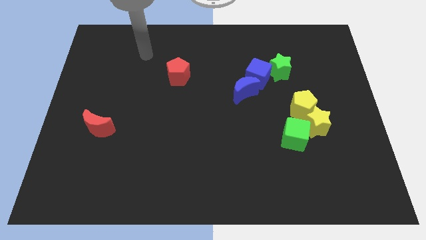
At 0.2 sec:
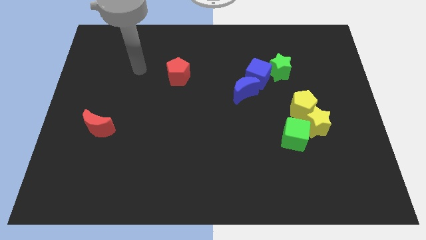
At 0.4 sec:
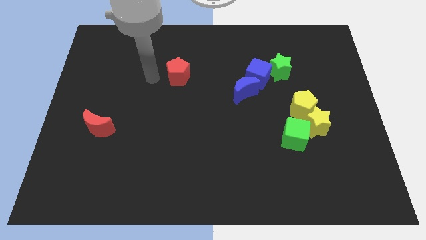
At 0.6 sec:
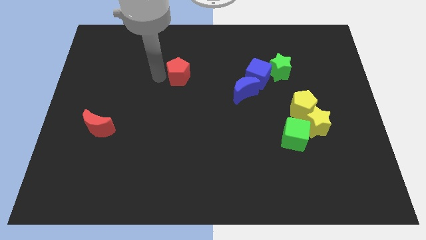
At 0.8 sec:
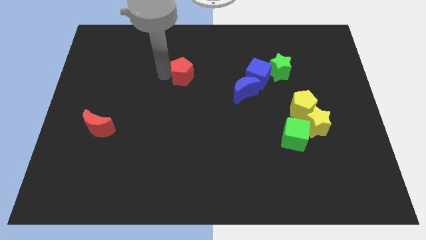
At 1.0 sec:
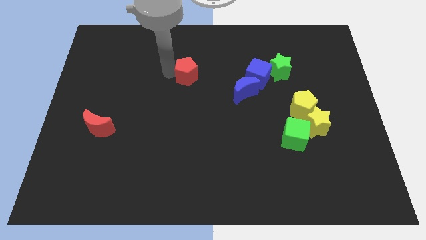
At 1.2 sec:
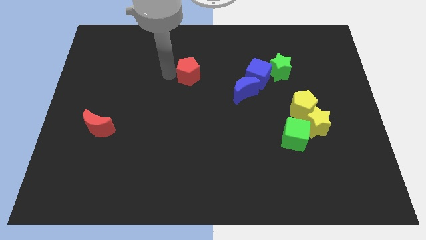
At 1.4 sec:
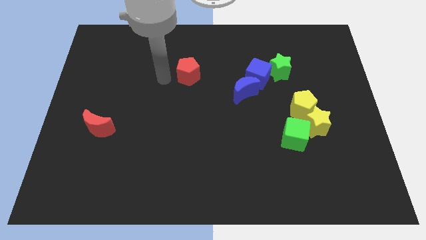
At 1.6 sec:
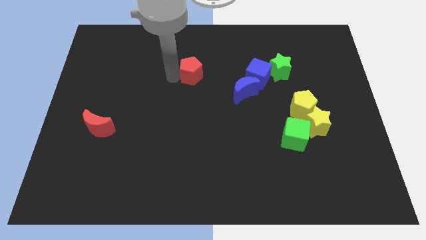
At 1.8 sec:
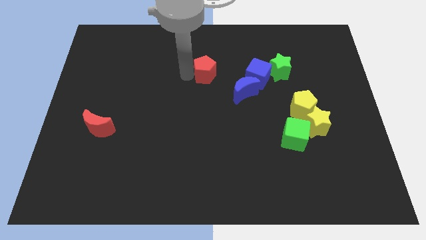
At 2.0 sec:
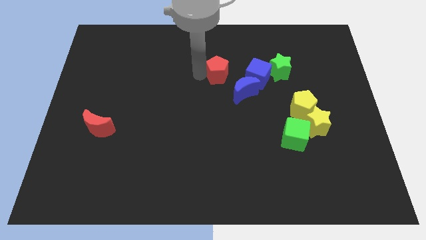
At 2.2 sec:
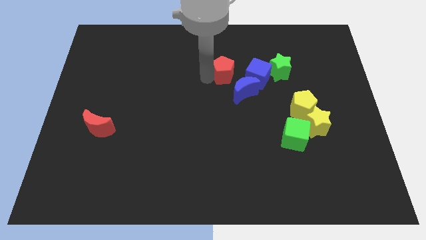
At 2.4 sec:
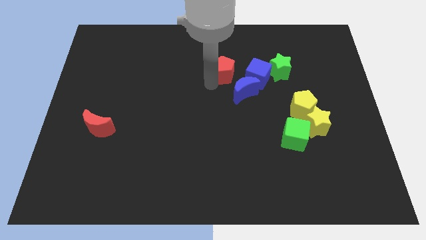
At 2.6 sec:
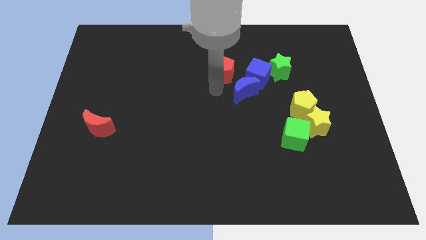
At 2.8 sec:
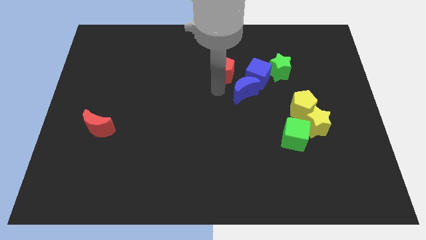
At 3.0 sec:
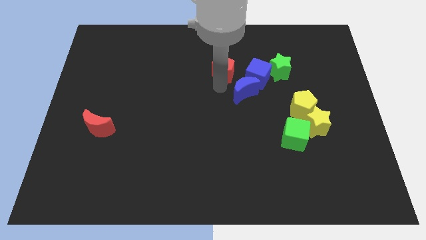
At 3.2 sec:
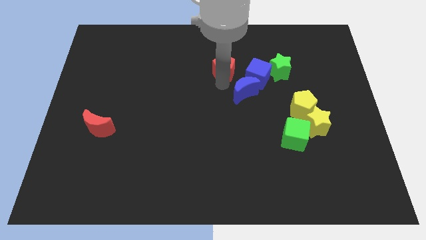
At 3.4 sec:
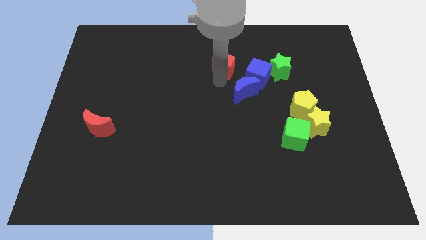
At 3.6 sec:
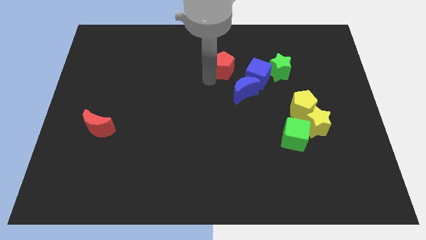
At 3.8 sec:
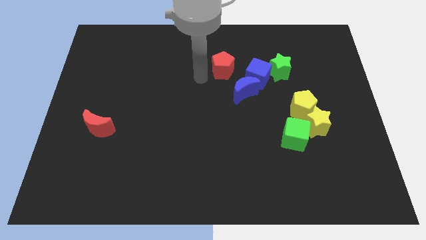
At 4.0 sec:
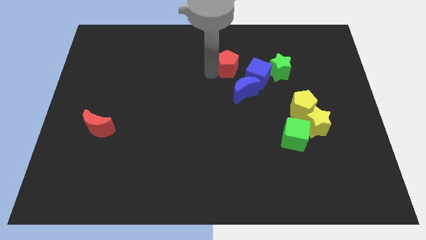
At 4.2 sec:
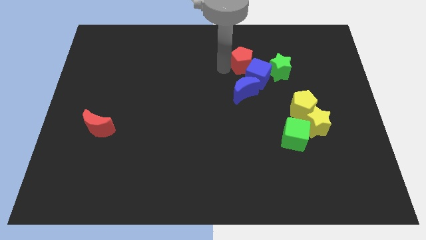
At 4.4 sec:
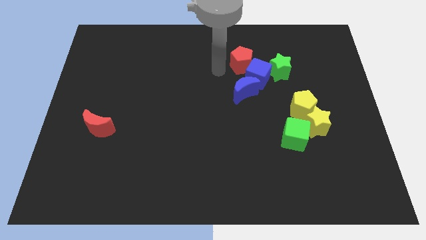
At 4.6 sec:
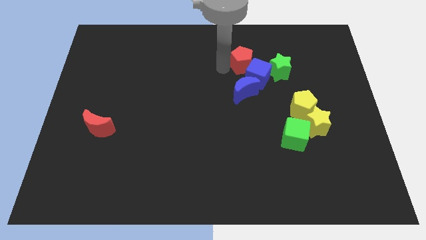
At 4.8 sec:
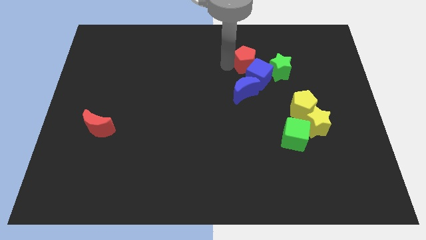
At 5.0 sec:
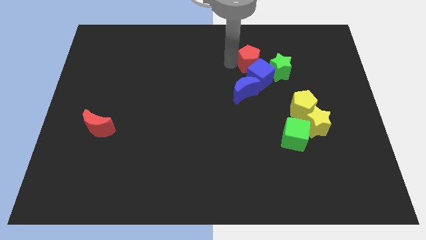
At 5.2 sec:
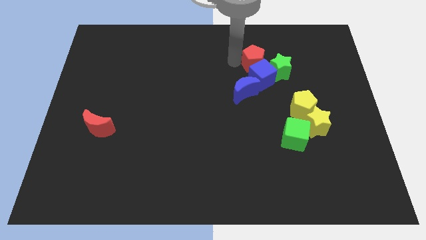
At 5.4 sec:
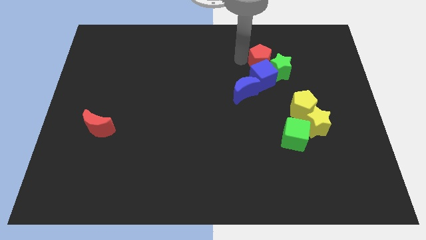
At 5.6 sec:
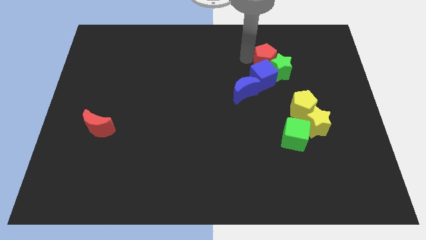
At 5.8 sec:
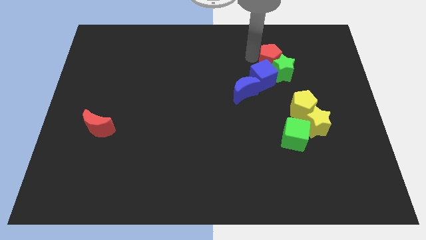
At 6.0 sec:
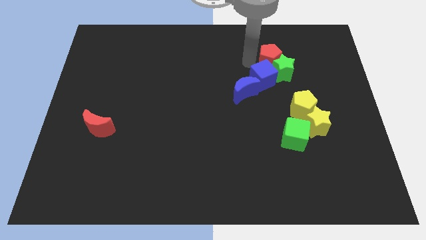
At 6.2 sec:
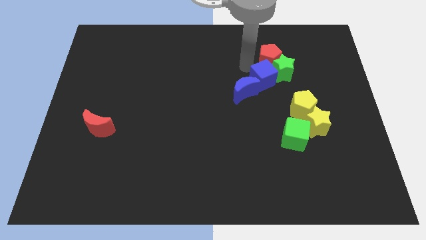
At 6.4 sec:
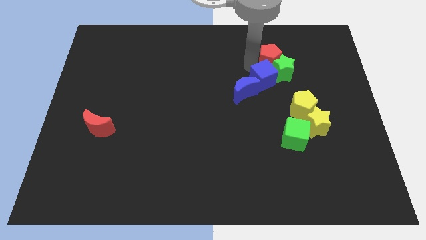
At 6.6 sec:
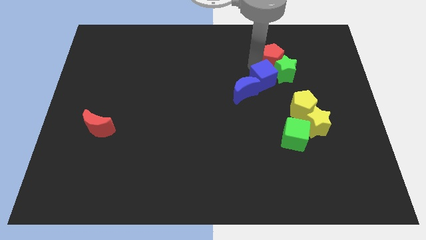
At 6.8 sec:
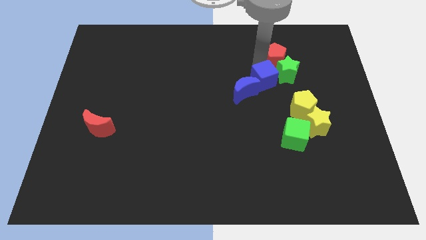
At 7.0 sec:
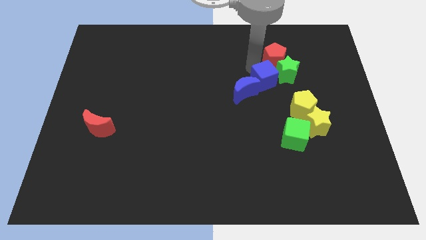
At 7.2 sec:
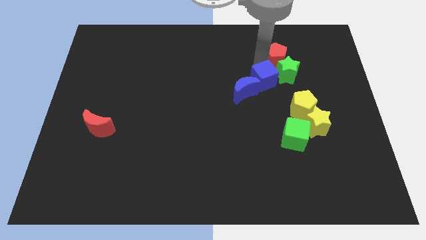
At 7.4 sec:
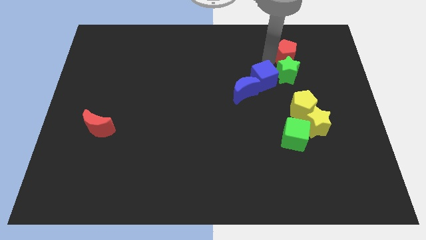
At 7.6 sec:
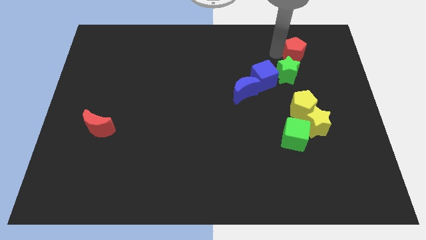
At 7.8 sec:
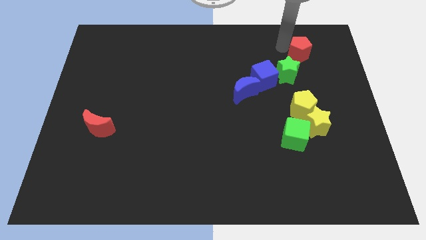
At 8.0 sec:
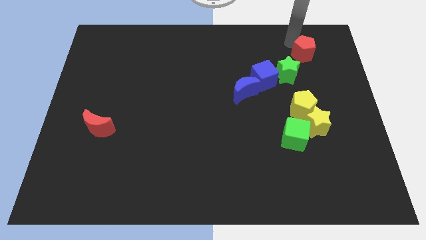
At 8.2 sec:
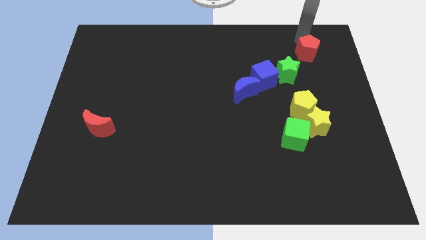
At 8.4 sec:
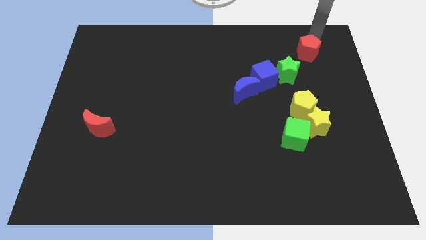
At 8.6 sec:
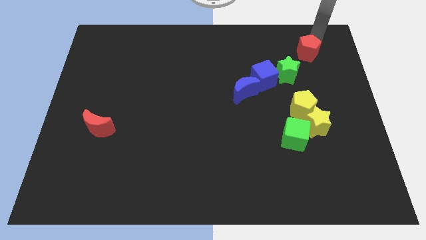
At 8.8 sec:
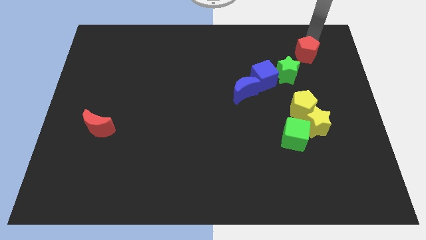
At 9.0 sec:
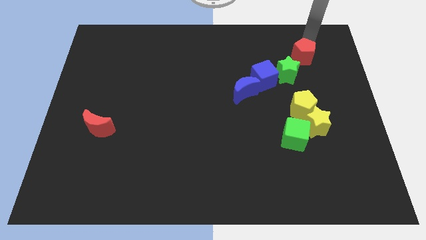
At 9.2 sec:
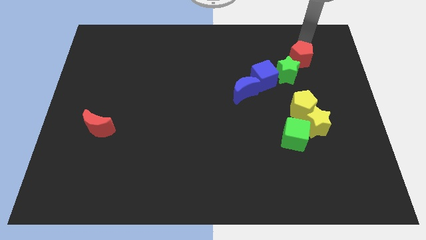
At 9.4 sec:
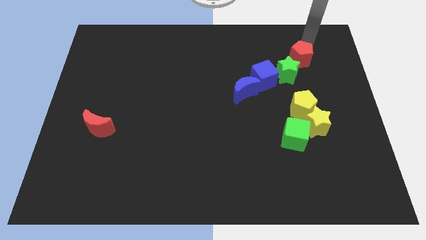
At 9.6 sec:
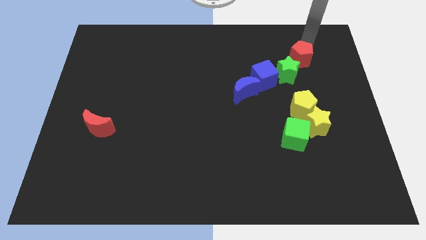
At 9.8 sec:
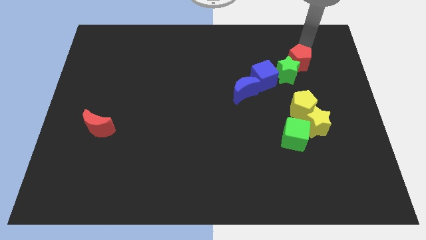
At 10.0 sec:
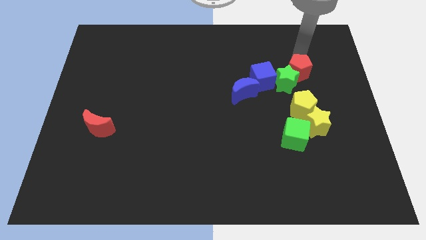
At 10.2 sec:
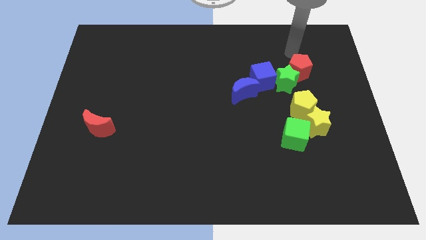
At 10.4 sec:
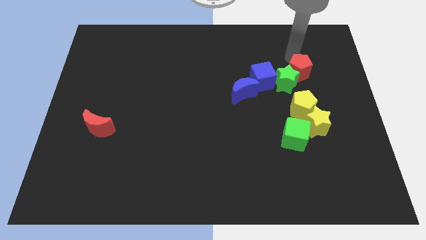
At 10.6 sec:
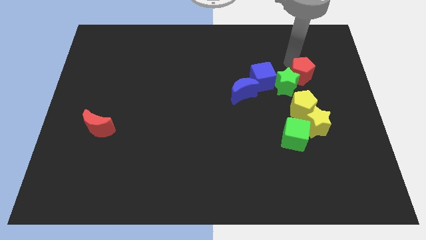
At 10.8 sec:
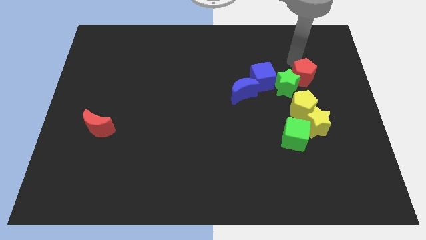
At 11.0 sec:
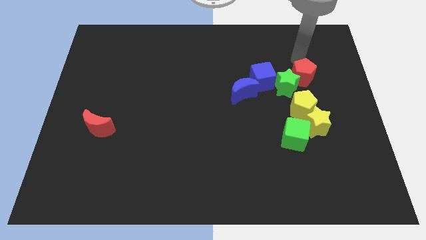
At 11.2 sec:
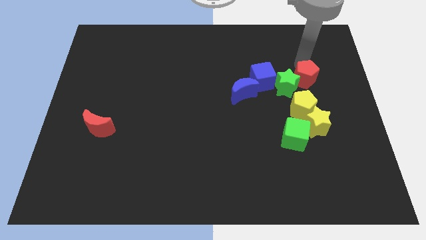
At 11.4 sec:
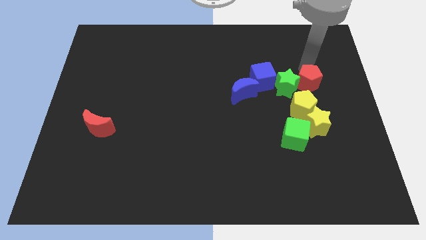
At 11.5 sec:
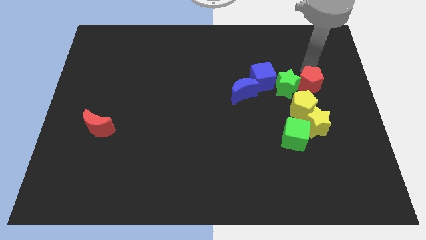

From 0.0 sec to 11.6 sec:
put the red pentagon to the bottom right side of the green star
